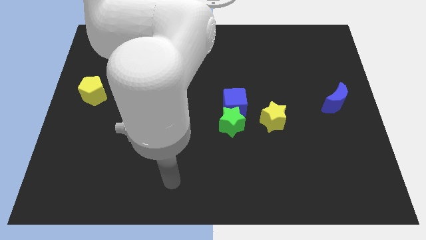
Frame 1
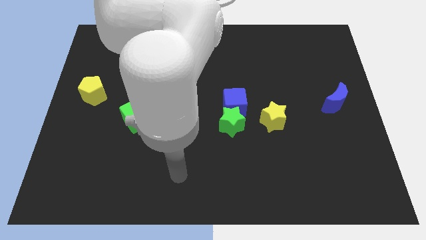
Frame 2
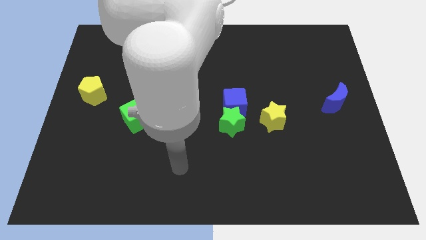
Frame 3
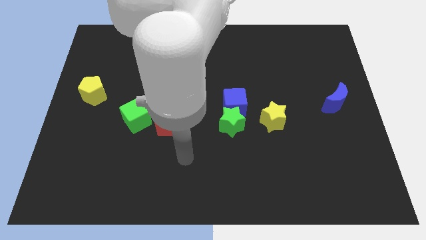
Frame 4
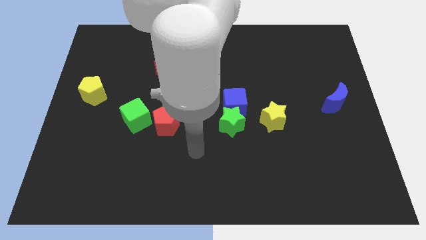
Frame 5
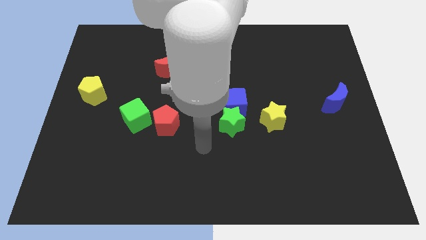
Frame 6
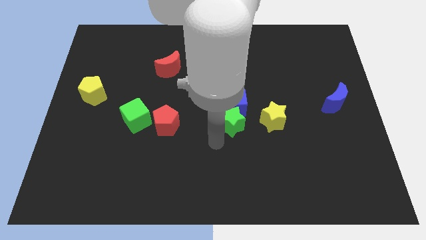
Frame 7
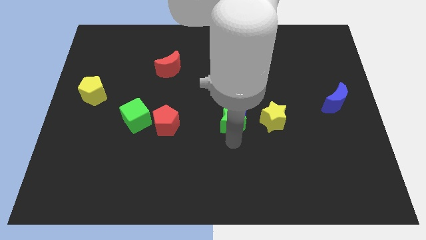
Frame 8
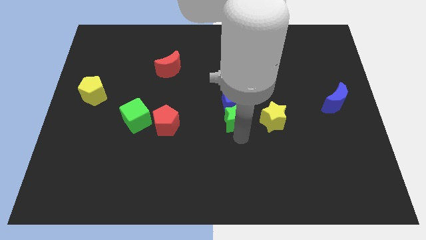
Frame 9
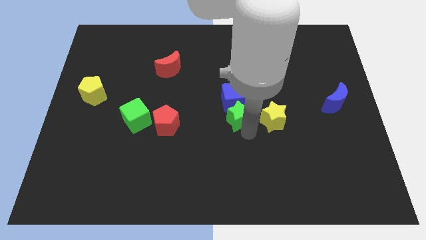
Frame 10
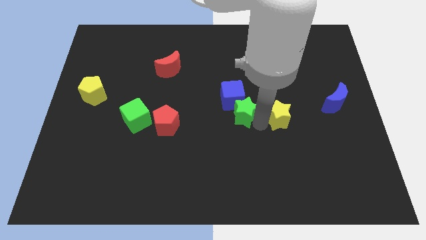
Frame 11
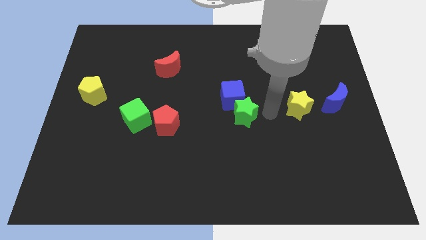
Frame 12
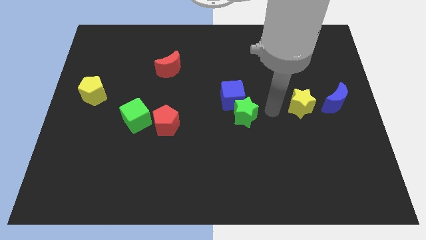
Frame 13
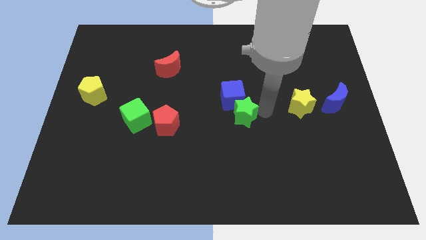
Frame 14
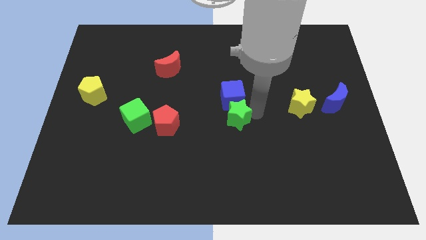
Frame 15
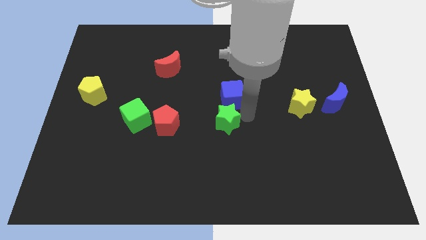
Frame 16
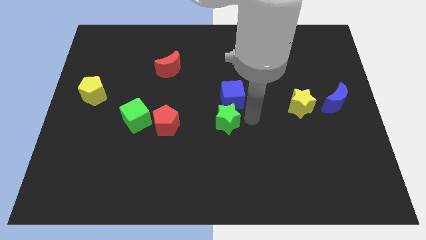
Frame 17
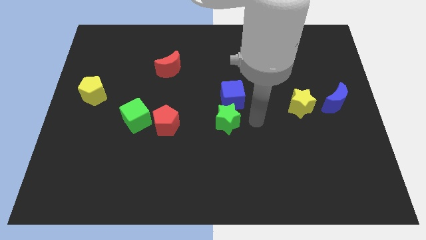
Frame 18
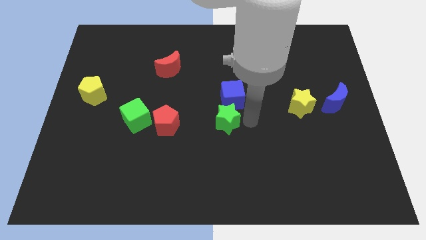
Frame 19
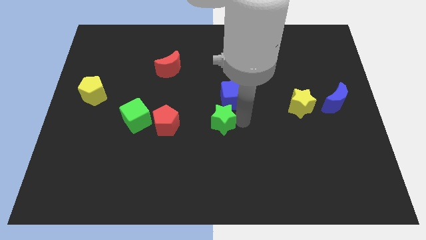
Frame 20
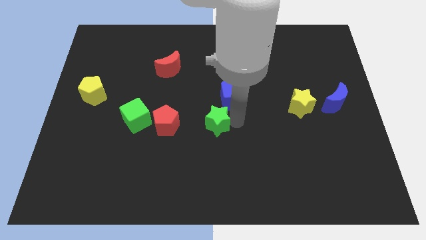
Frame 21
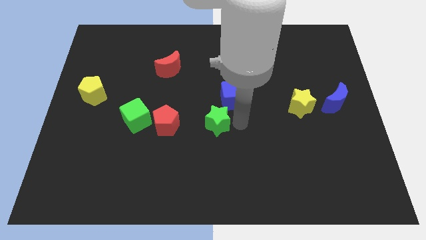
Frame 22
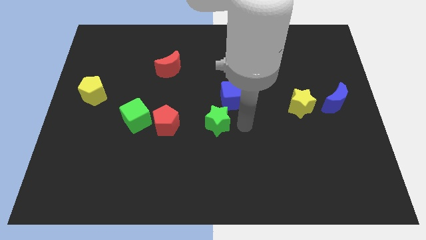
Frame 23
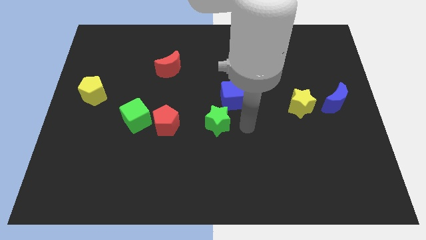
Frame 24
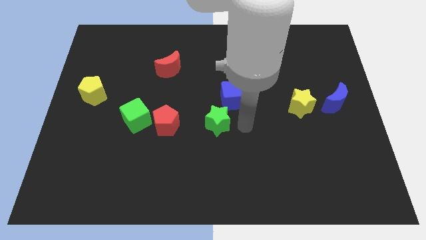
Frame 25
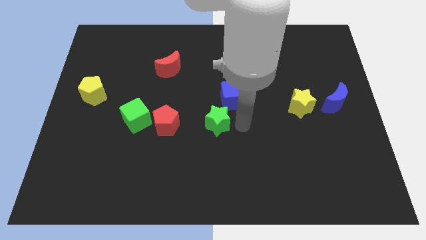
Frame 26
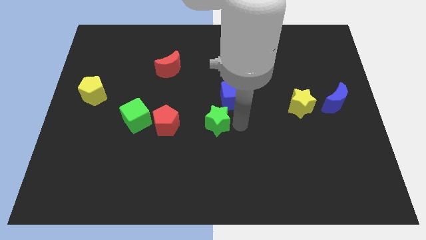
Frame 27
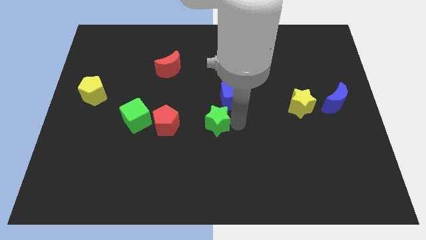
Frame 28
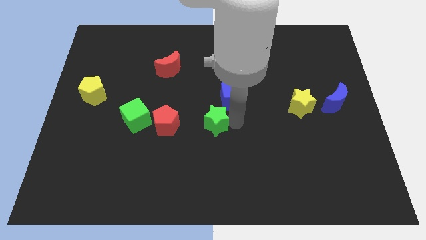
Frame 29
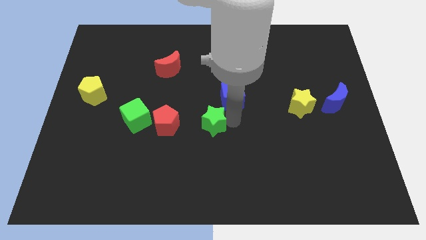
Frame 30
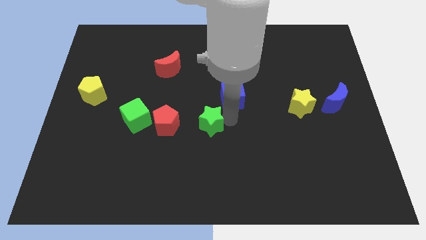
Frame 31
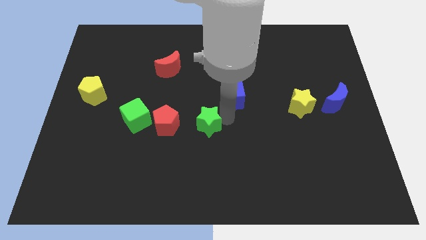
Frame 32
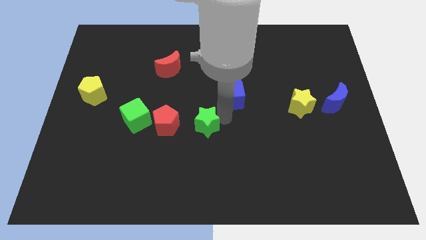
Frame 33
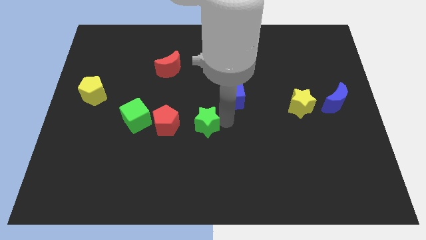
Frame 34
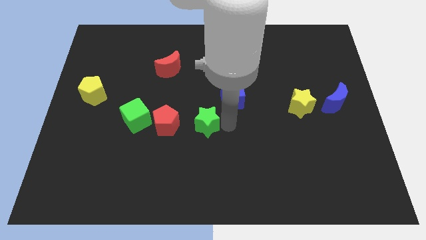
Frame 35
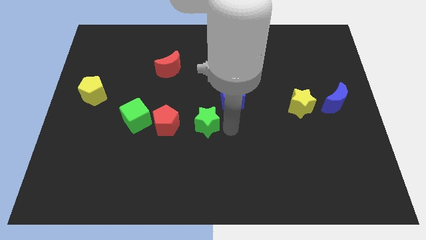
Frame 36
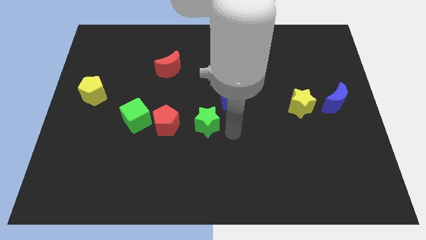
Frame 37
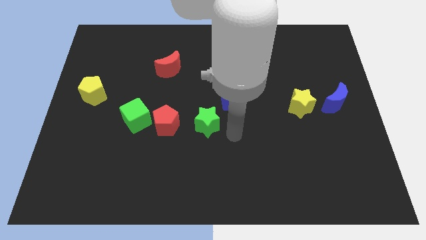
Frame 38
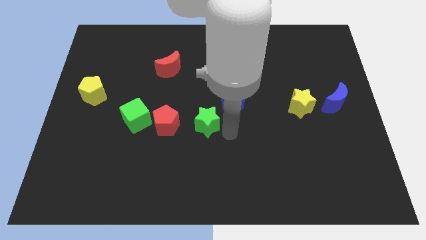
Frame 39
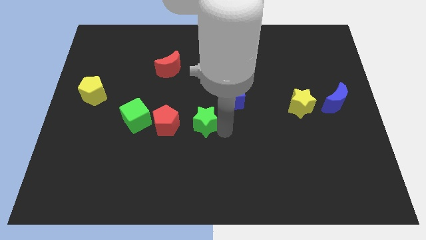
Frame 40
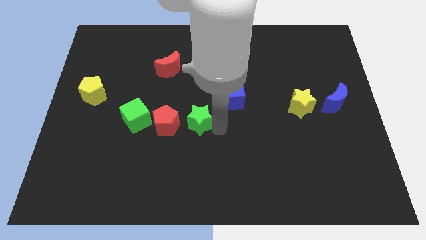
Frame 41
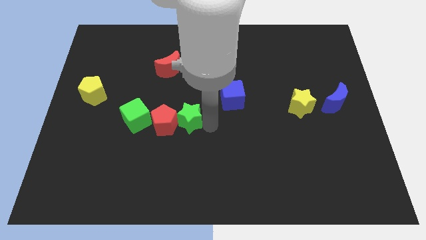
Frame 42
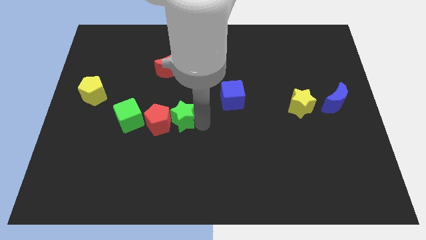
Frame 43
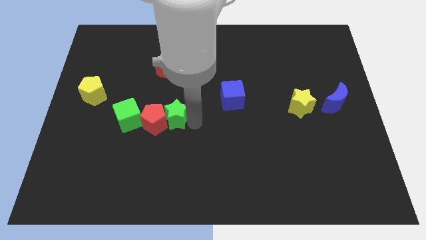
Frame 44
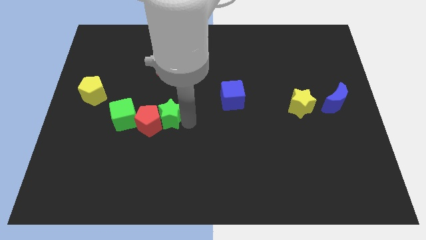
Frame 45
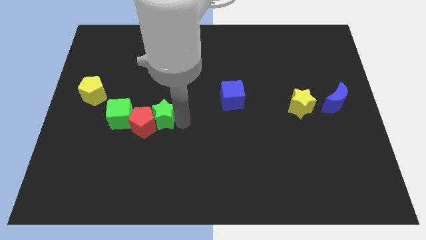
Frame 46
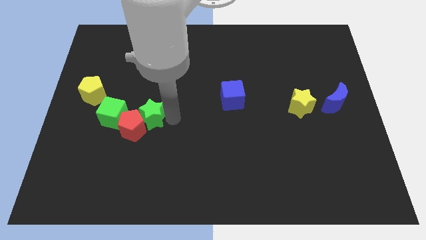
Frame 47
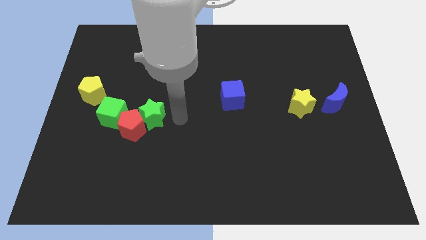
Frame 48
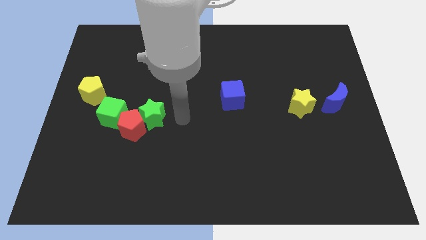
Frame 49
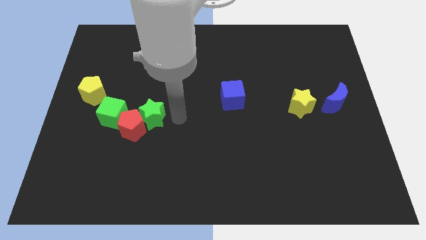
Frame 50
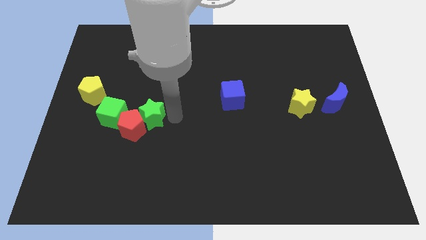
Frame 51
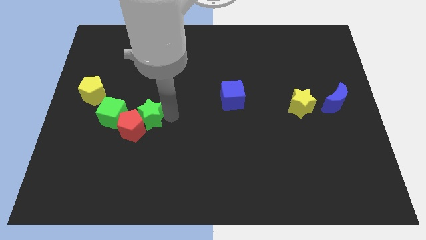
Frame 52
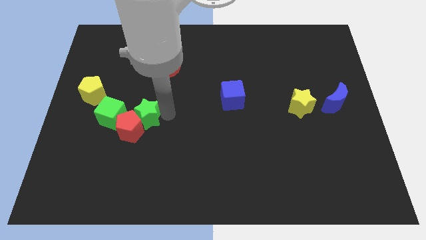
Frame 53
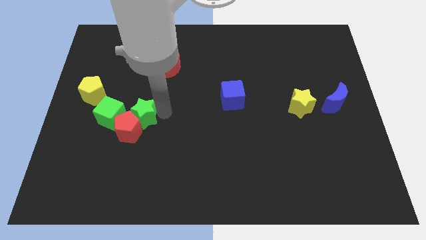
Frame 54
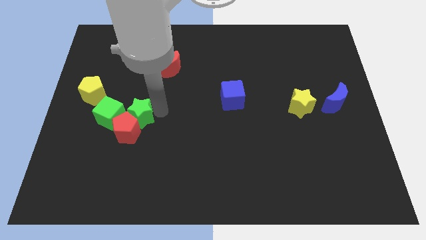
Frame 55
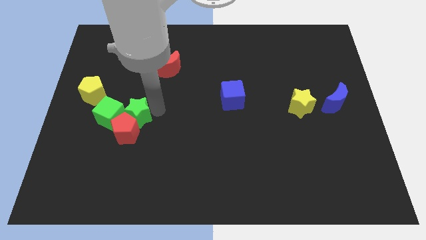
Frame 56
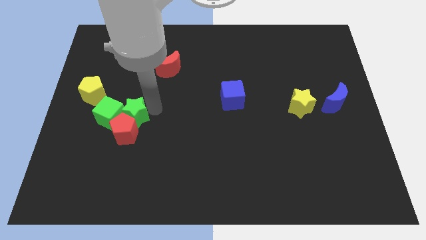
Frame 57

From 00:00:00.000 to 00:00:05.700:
push the green star to the green cube

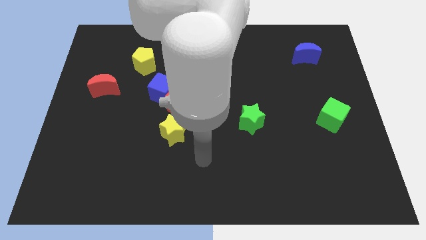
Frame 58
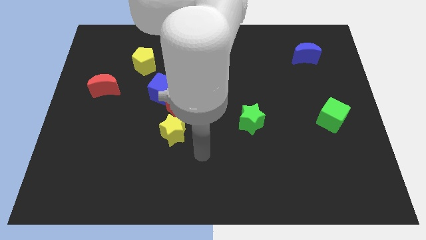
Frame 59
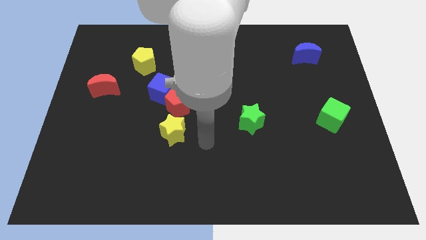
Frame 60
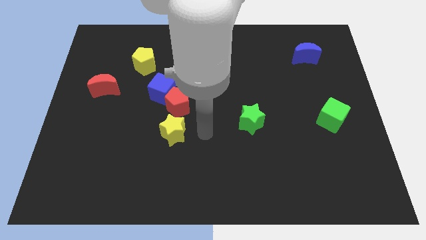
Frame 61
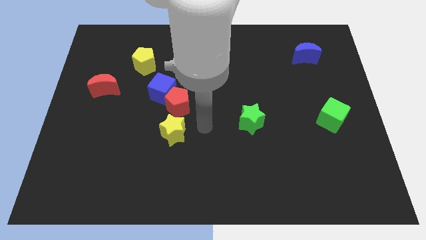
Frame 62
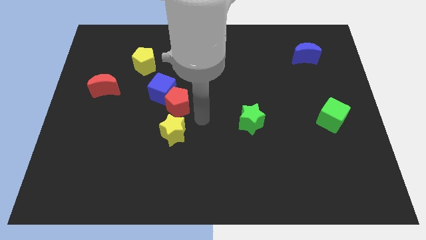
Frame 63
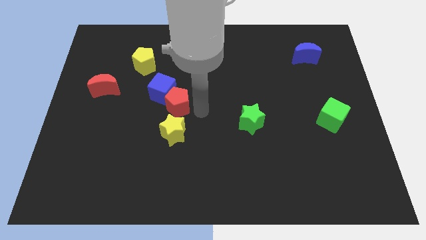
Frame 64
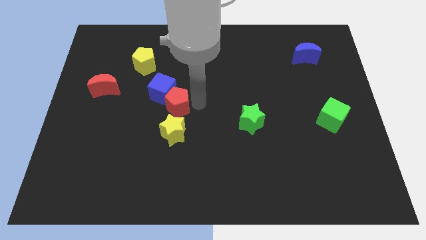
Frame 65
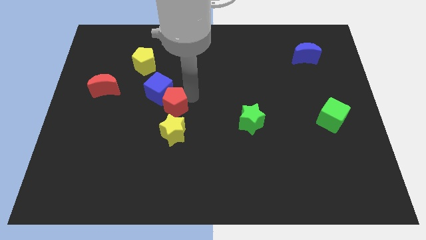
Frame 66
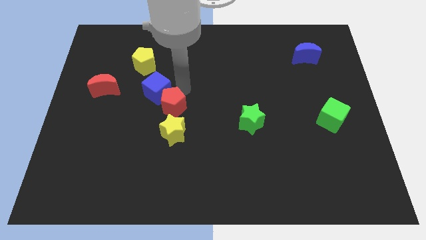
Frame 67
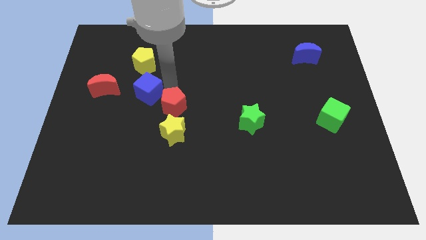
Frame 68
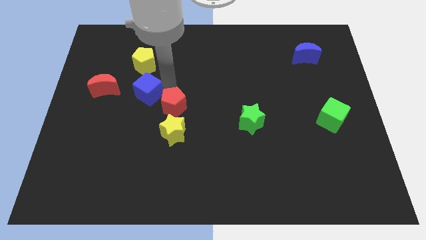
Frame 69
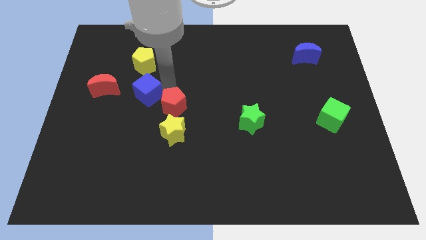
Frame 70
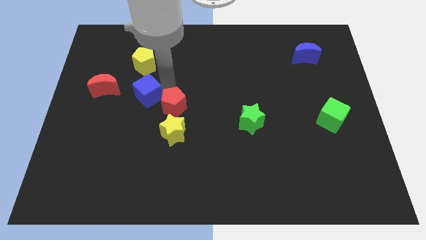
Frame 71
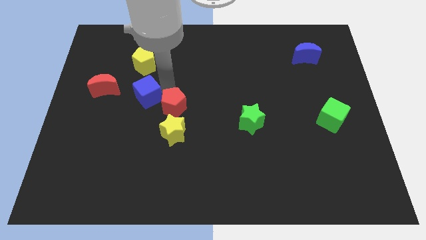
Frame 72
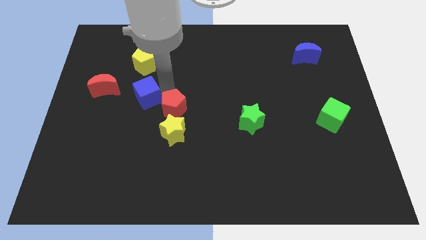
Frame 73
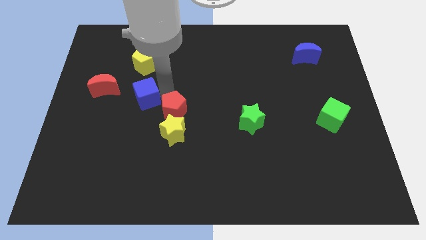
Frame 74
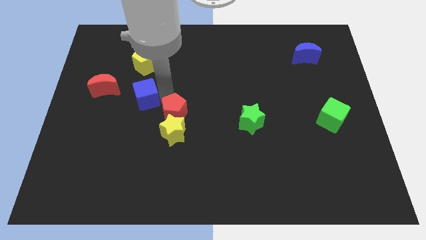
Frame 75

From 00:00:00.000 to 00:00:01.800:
move the red pentagon towards the yellow star
